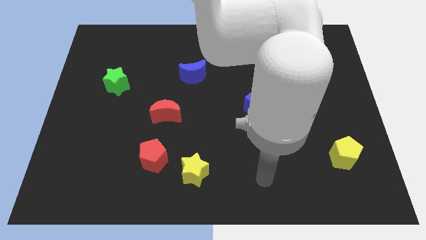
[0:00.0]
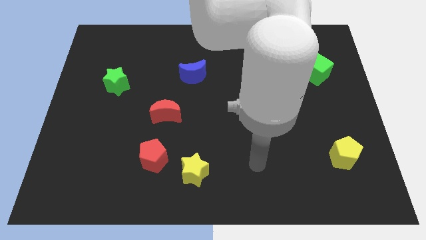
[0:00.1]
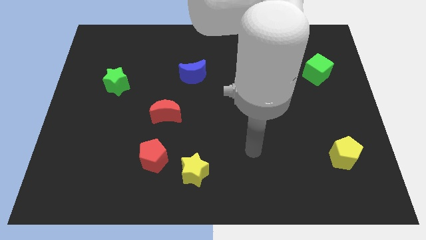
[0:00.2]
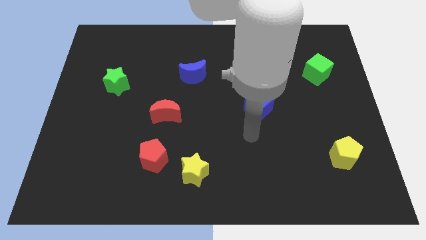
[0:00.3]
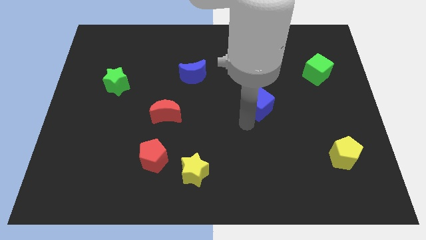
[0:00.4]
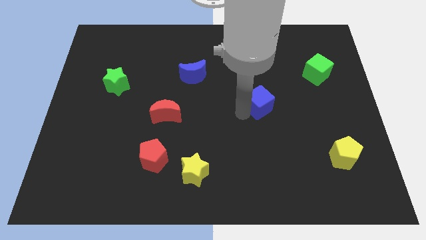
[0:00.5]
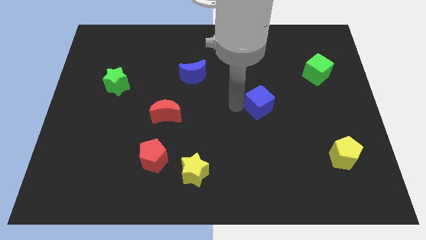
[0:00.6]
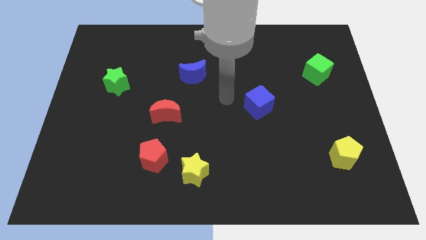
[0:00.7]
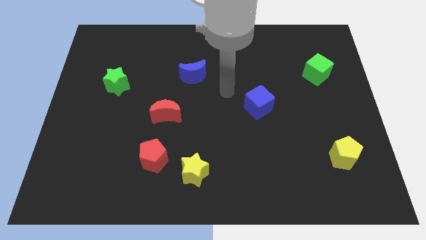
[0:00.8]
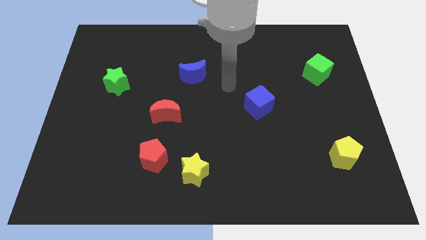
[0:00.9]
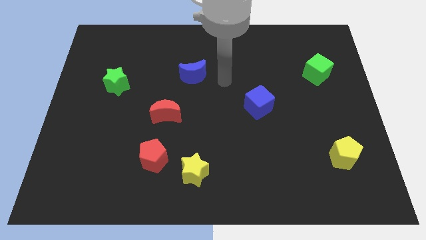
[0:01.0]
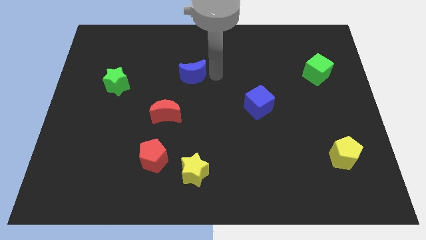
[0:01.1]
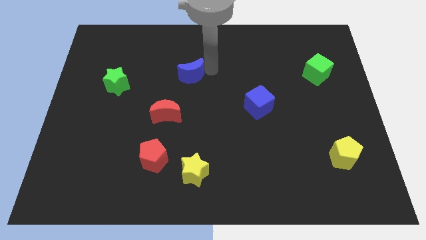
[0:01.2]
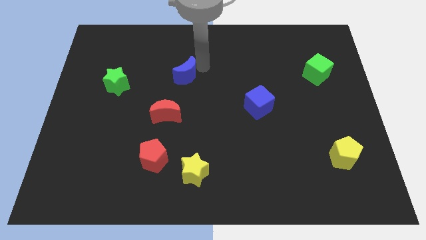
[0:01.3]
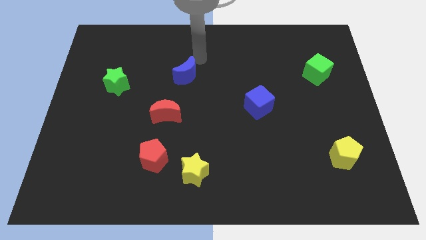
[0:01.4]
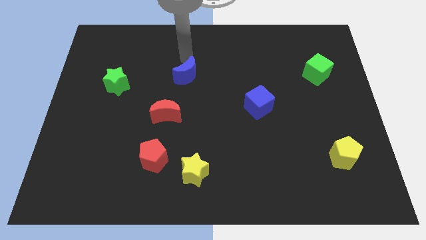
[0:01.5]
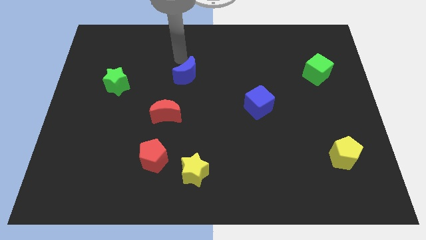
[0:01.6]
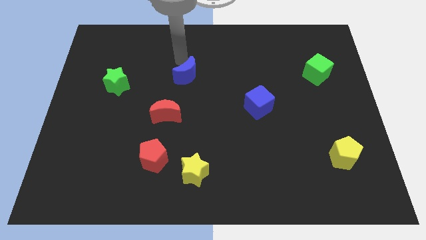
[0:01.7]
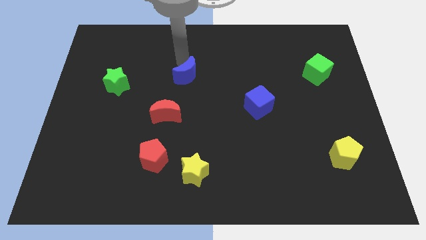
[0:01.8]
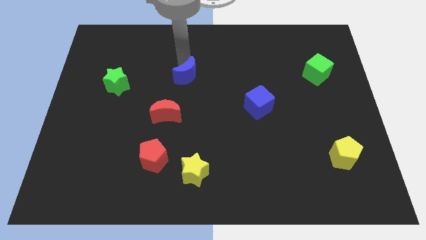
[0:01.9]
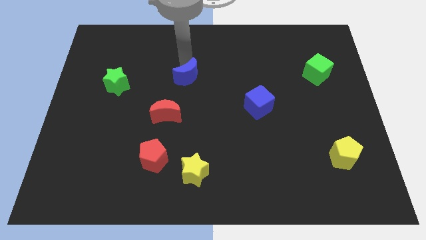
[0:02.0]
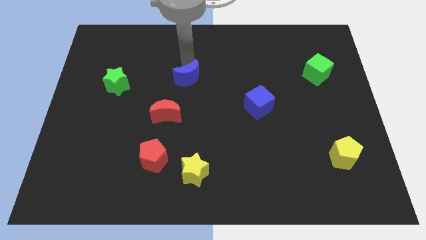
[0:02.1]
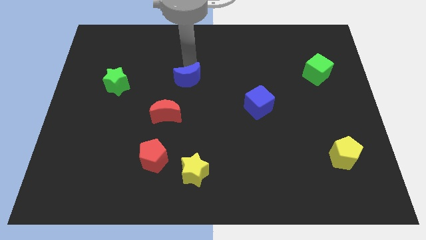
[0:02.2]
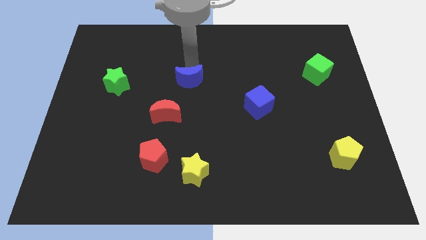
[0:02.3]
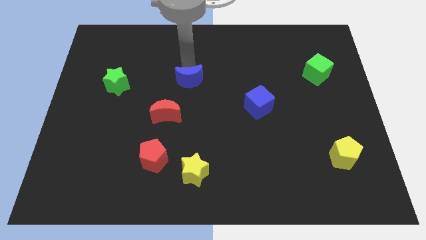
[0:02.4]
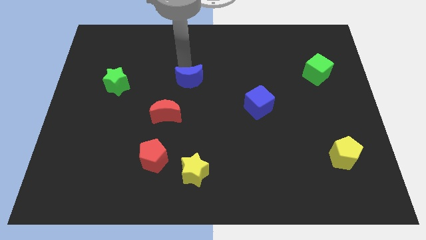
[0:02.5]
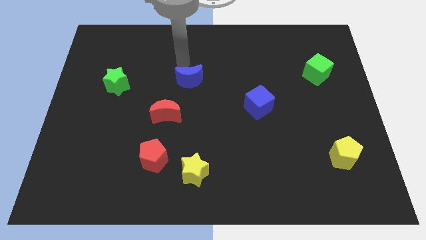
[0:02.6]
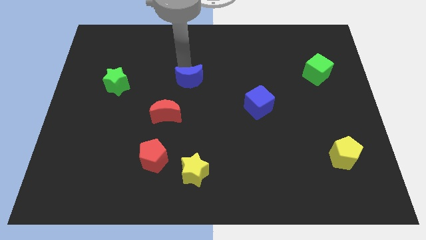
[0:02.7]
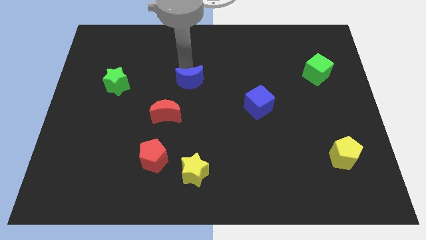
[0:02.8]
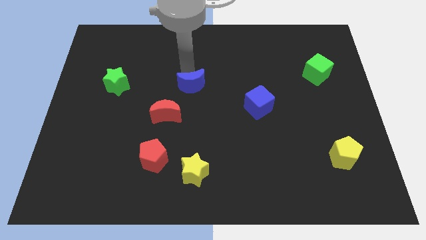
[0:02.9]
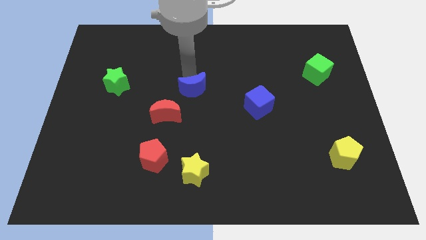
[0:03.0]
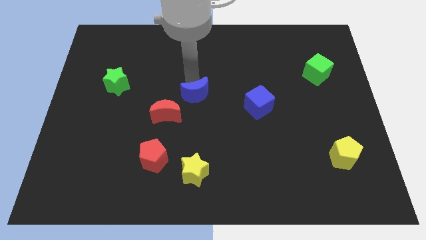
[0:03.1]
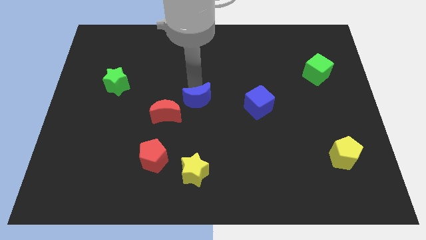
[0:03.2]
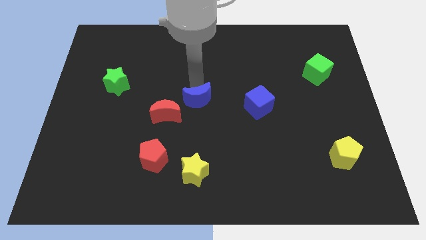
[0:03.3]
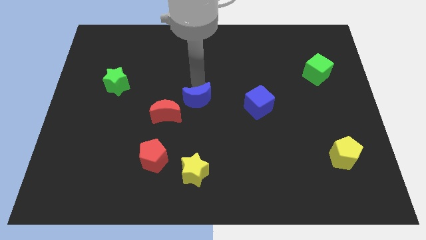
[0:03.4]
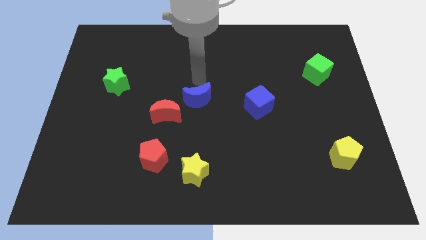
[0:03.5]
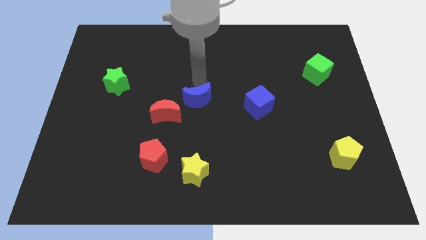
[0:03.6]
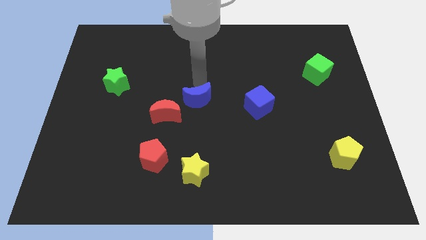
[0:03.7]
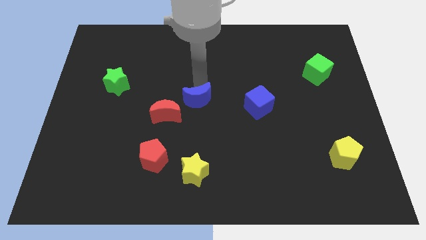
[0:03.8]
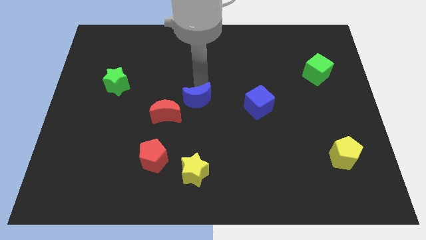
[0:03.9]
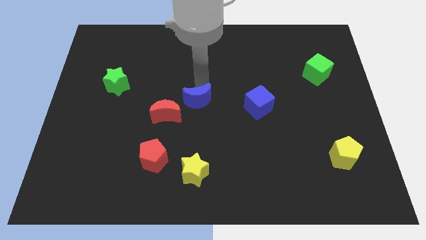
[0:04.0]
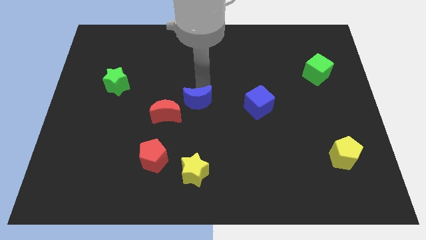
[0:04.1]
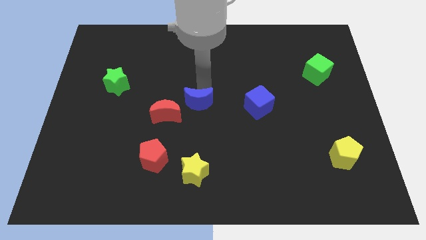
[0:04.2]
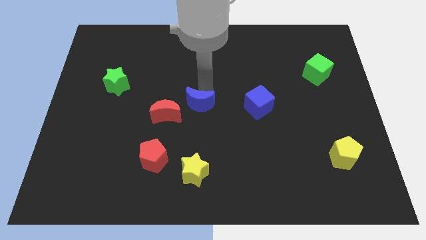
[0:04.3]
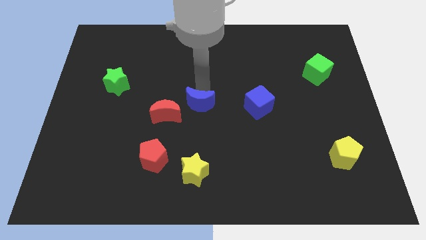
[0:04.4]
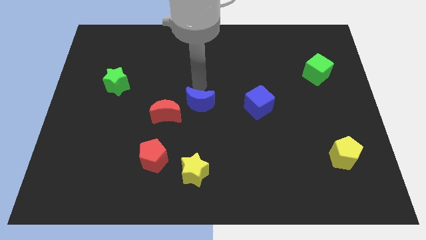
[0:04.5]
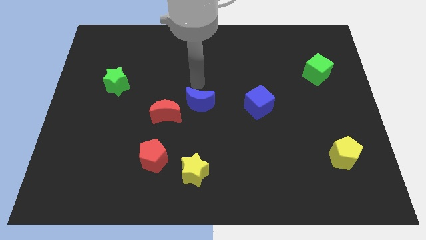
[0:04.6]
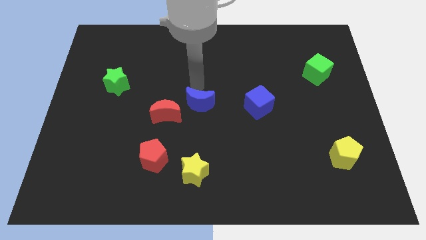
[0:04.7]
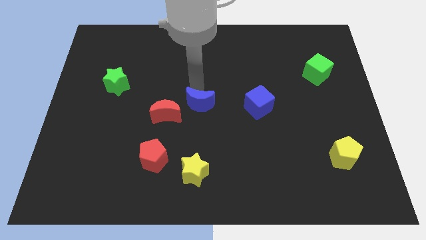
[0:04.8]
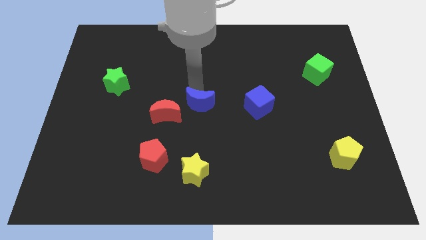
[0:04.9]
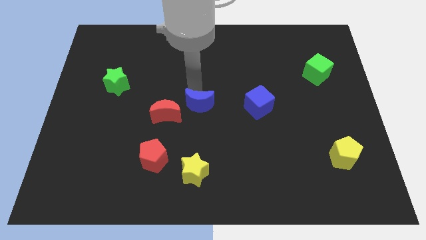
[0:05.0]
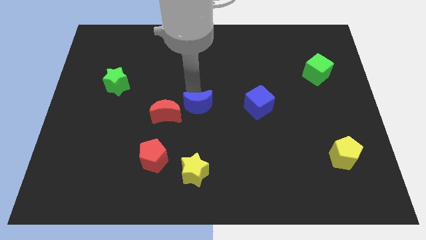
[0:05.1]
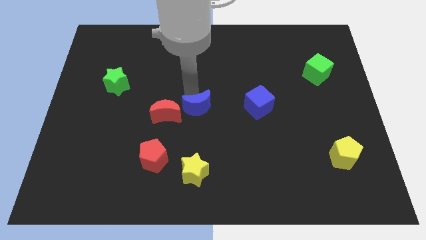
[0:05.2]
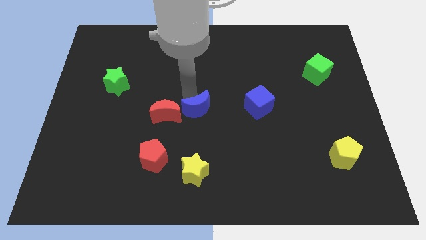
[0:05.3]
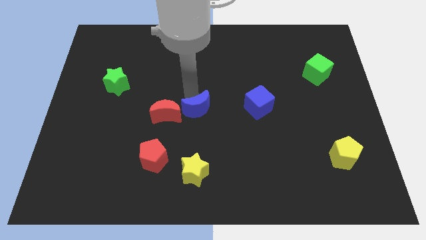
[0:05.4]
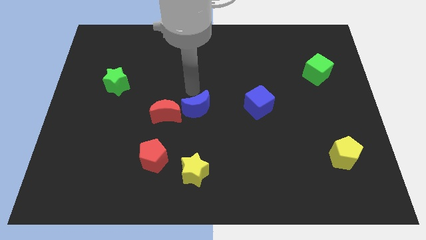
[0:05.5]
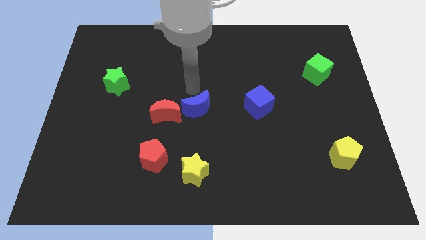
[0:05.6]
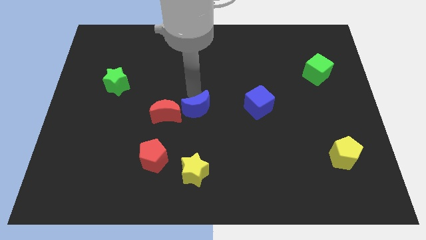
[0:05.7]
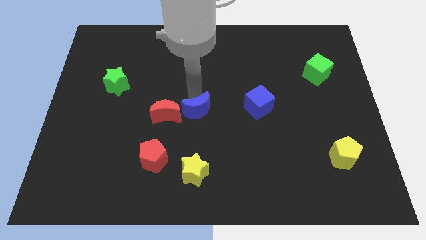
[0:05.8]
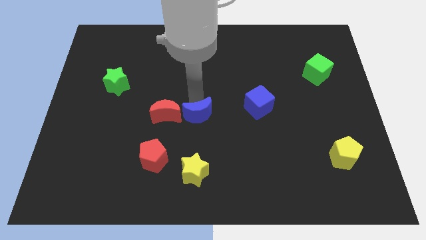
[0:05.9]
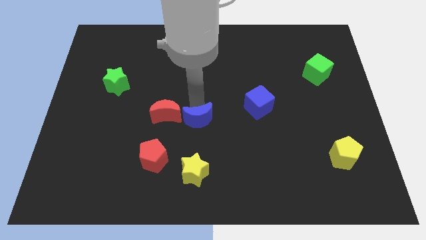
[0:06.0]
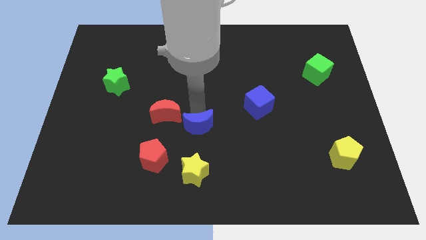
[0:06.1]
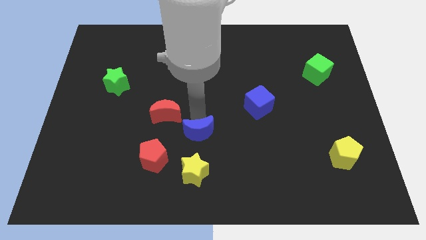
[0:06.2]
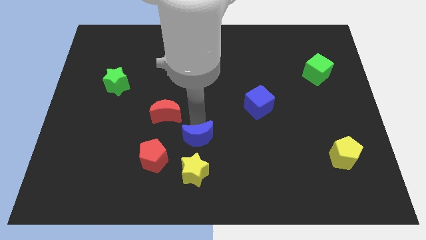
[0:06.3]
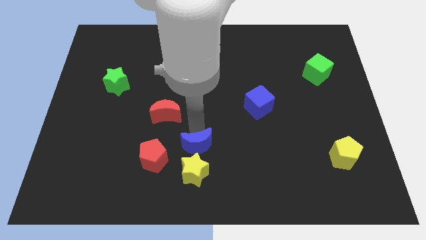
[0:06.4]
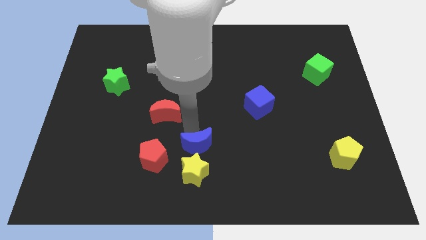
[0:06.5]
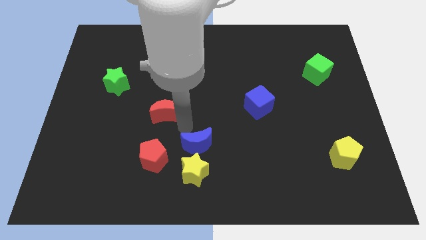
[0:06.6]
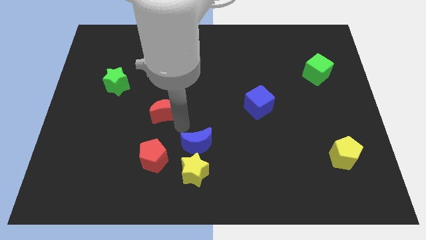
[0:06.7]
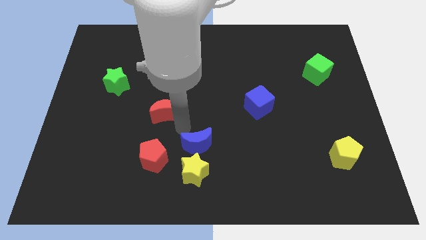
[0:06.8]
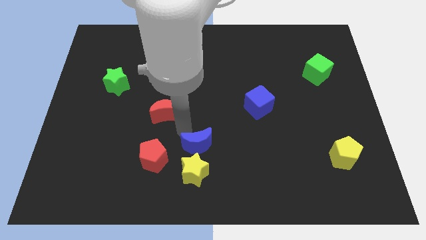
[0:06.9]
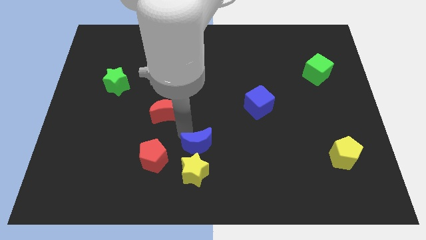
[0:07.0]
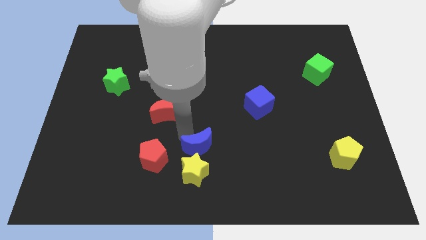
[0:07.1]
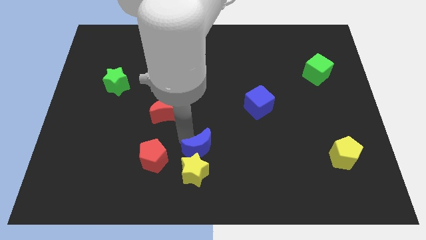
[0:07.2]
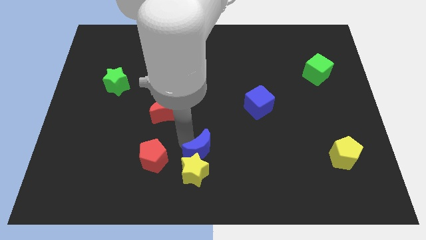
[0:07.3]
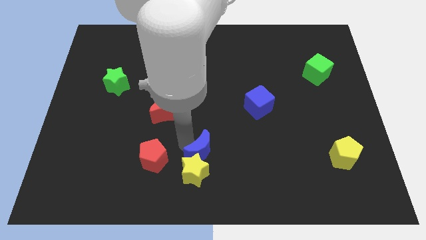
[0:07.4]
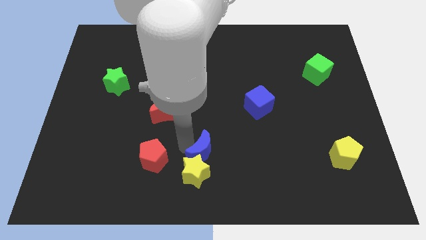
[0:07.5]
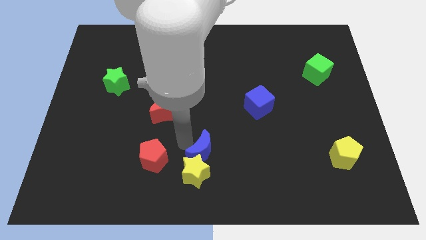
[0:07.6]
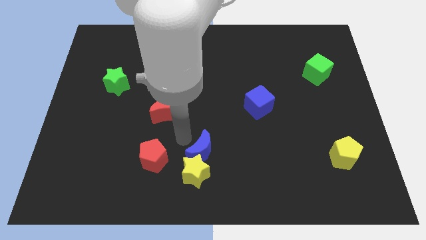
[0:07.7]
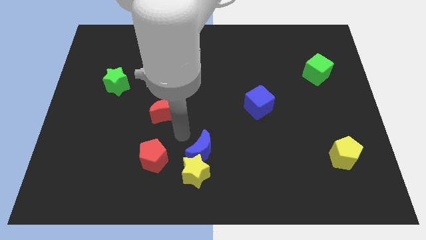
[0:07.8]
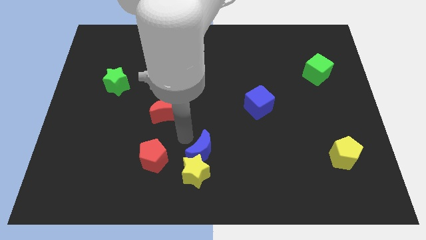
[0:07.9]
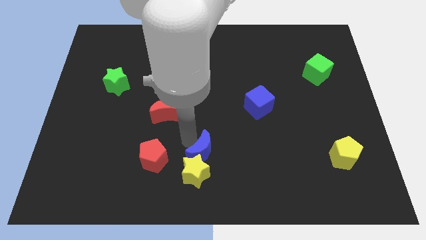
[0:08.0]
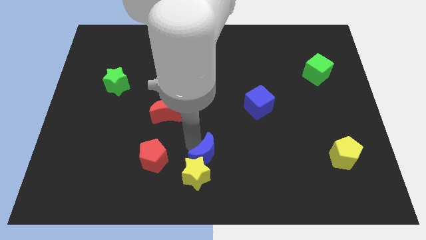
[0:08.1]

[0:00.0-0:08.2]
move the blue moon to the bottom
